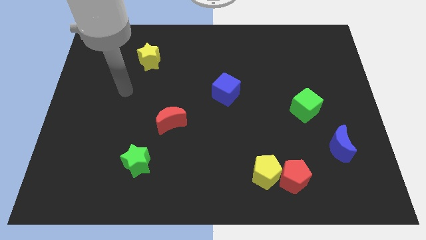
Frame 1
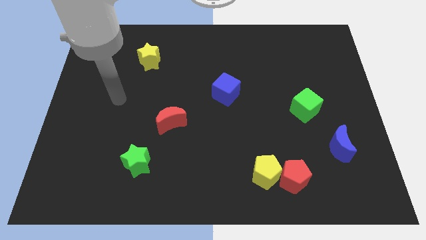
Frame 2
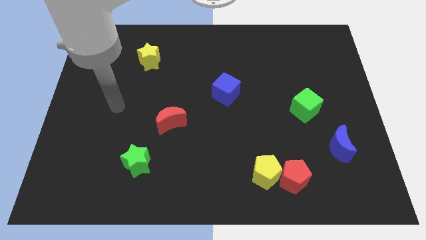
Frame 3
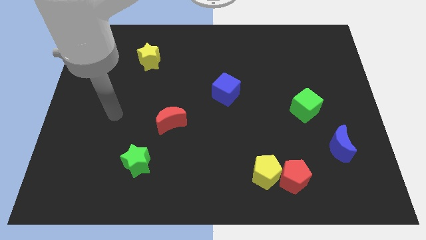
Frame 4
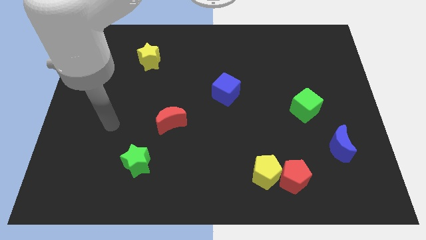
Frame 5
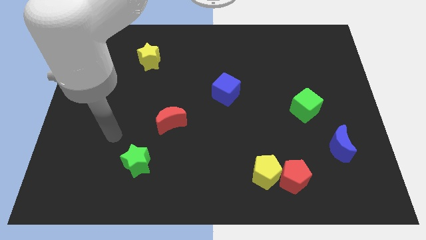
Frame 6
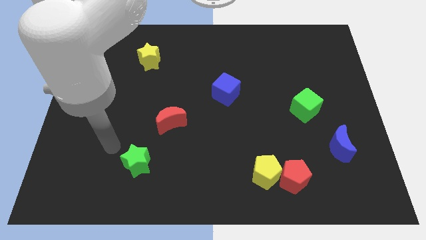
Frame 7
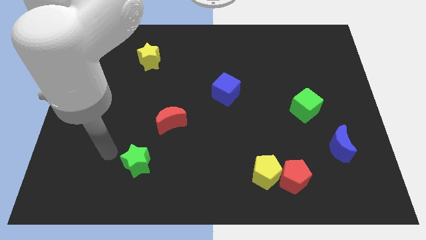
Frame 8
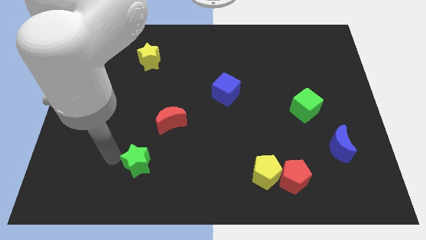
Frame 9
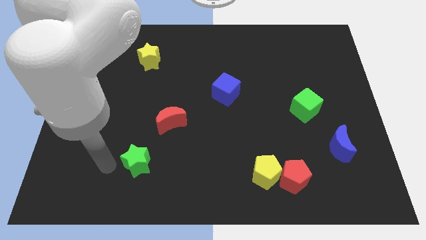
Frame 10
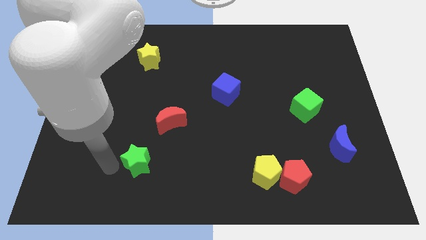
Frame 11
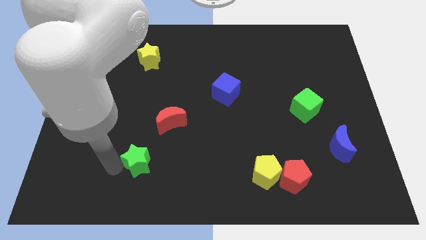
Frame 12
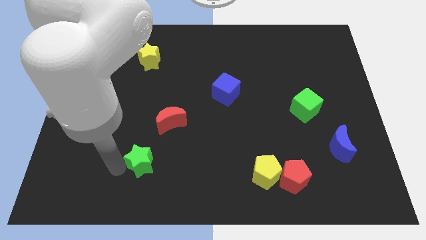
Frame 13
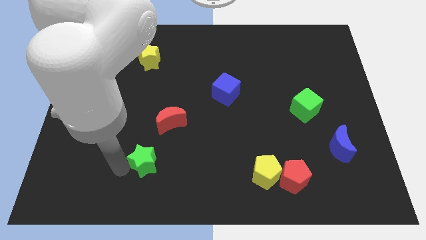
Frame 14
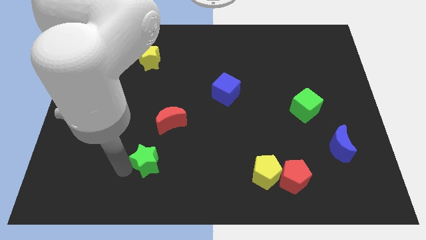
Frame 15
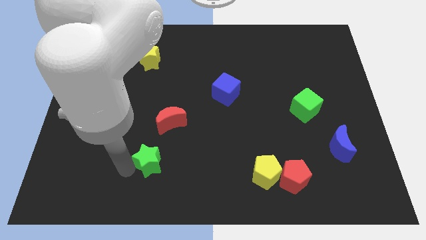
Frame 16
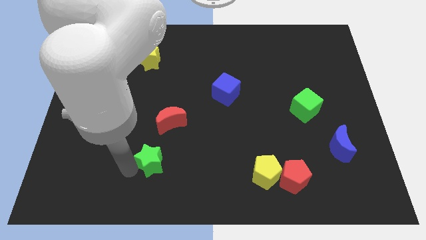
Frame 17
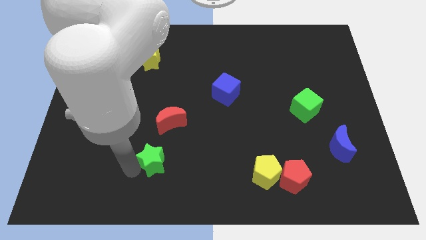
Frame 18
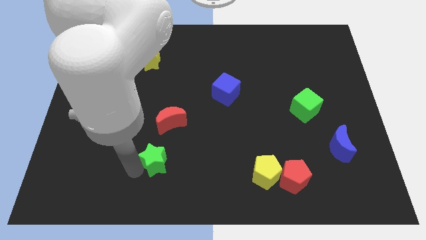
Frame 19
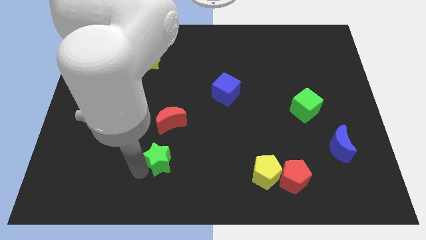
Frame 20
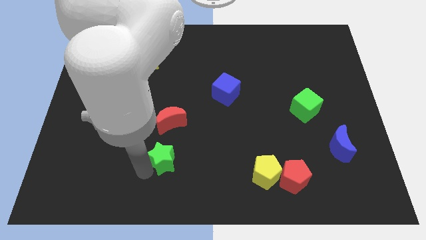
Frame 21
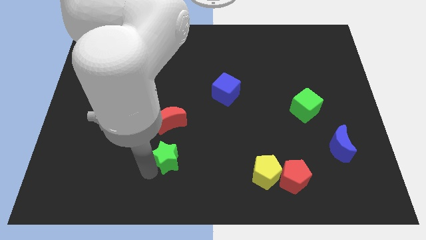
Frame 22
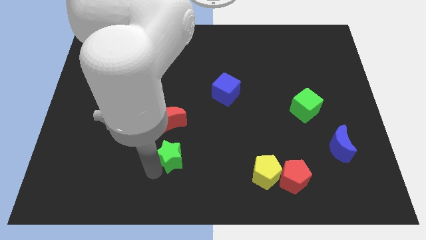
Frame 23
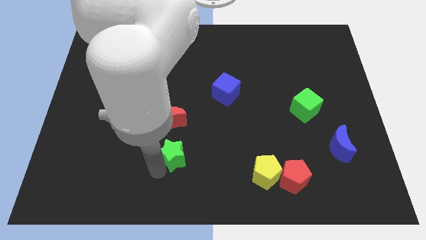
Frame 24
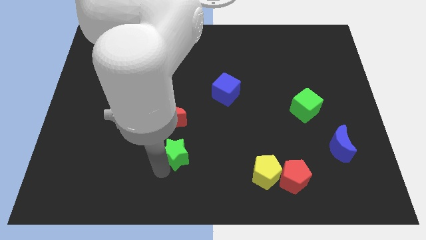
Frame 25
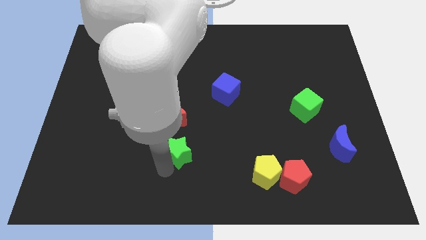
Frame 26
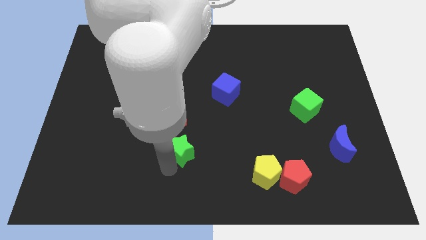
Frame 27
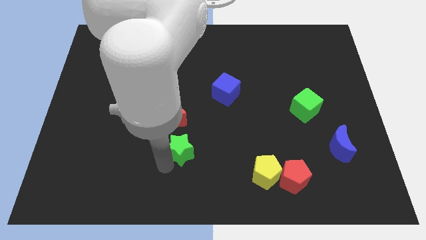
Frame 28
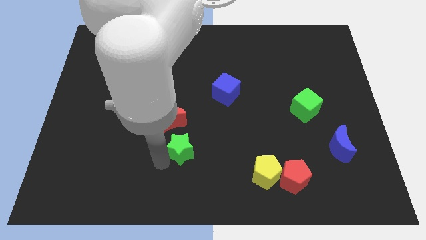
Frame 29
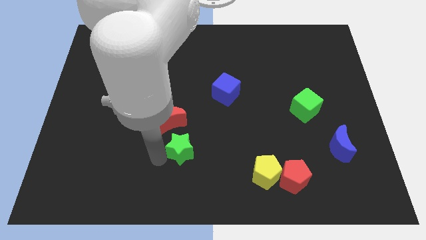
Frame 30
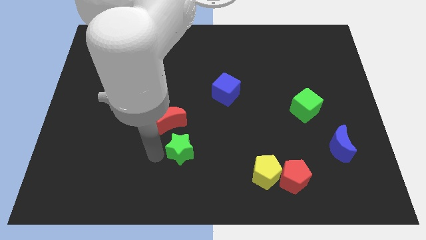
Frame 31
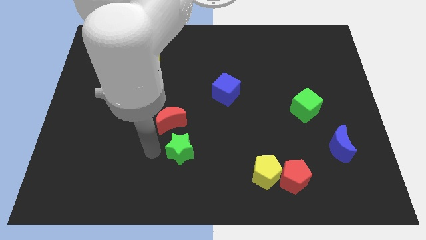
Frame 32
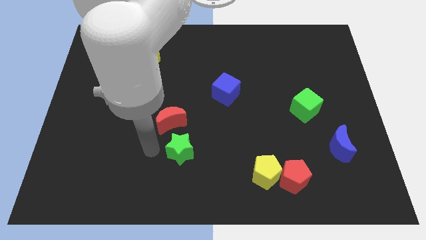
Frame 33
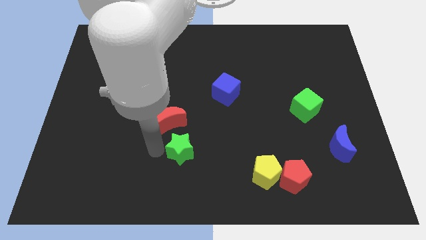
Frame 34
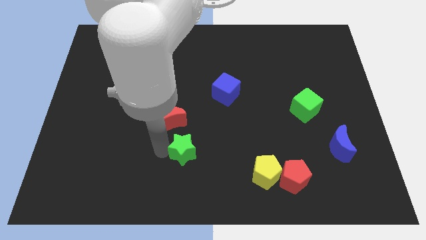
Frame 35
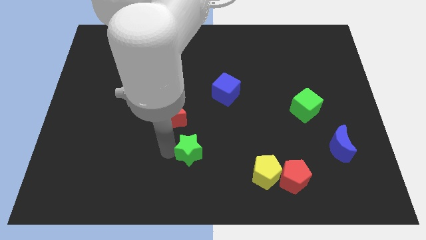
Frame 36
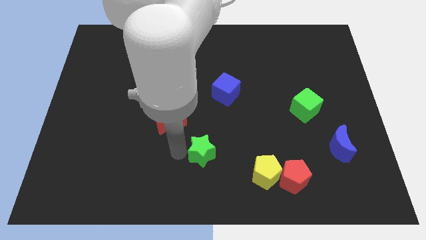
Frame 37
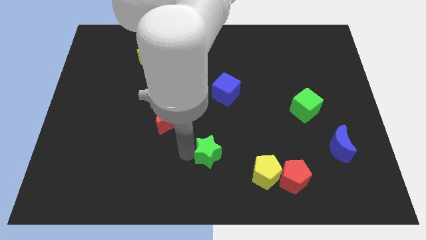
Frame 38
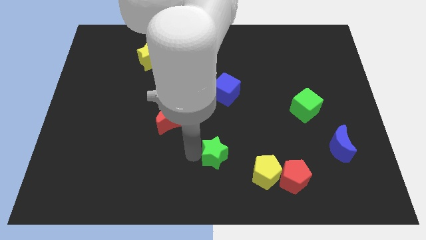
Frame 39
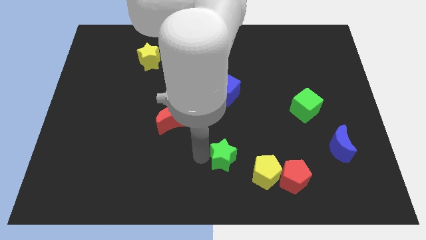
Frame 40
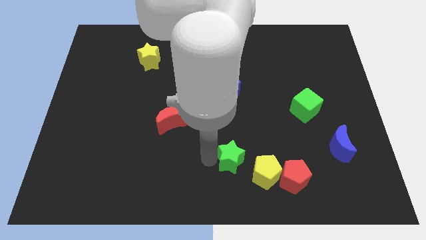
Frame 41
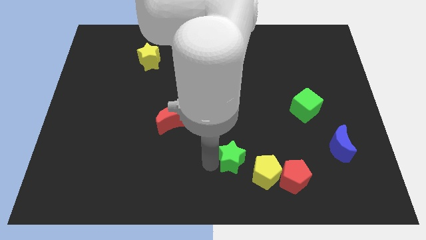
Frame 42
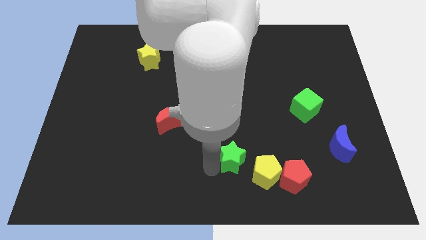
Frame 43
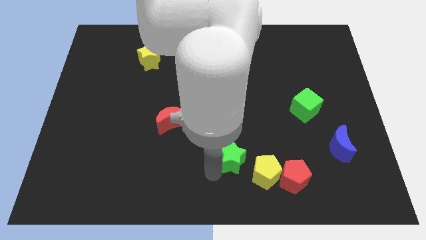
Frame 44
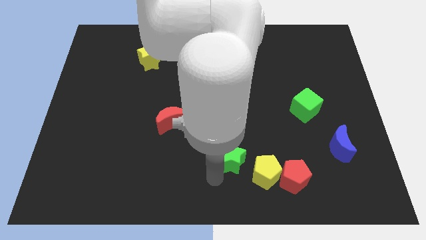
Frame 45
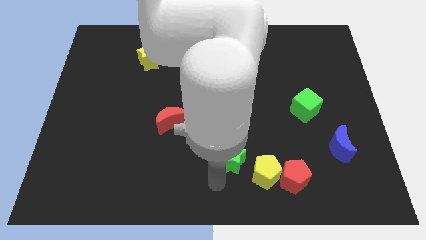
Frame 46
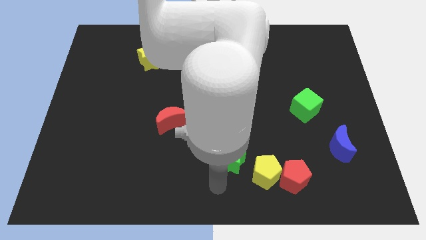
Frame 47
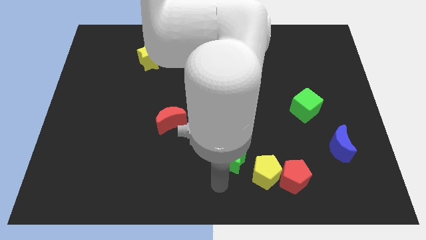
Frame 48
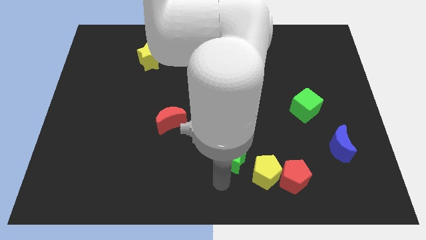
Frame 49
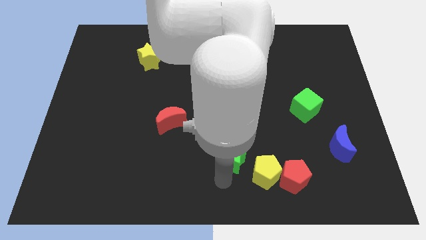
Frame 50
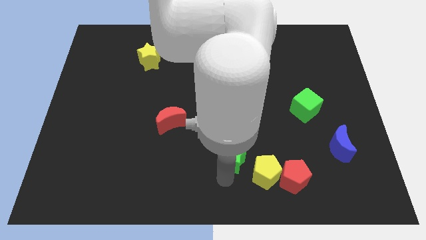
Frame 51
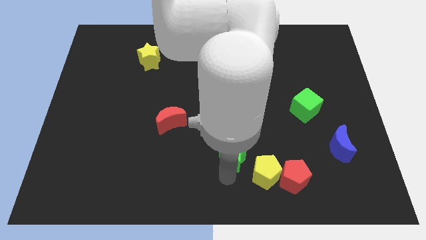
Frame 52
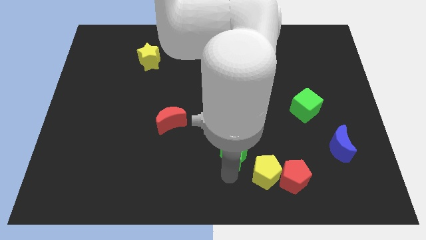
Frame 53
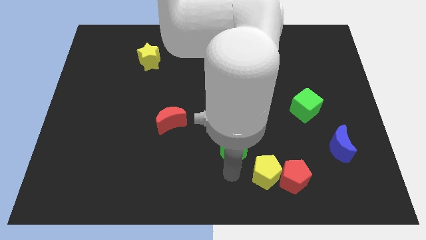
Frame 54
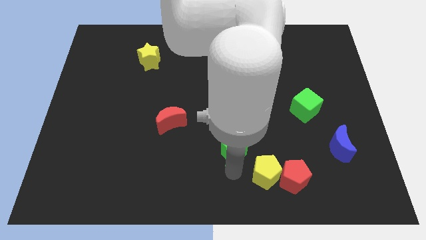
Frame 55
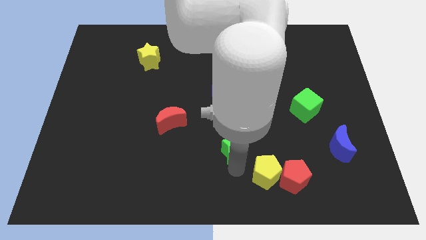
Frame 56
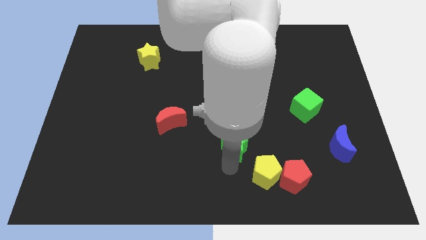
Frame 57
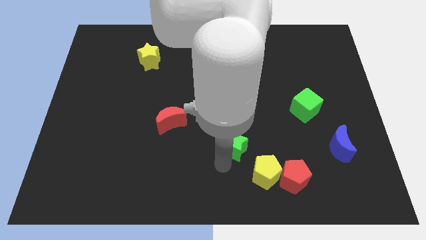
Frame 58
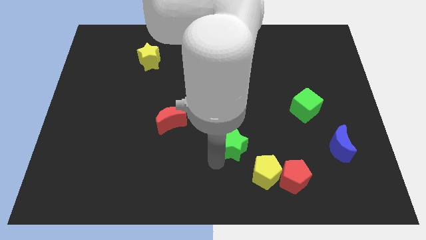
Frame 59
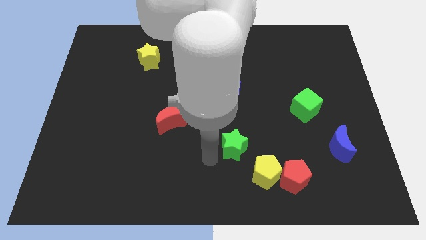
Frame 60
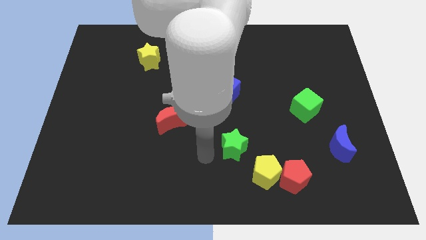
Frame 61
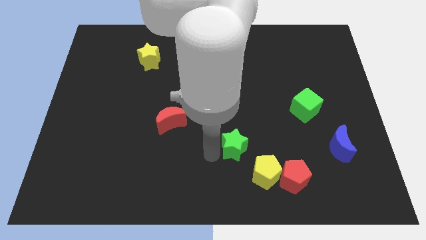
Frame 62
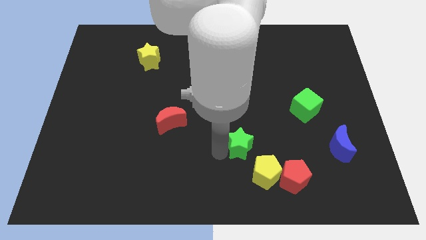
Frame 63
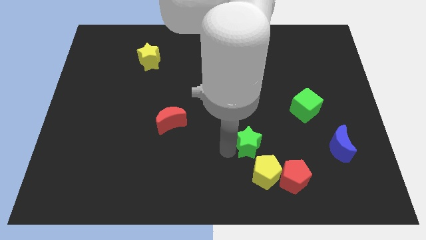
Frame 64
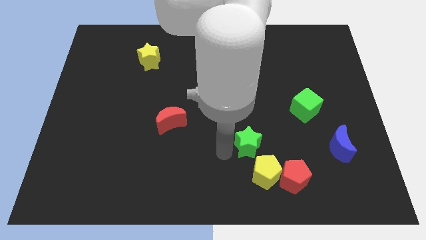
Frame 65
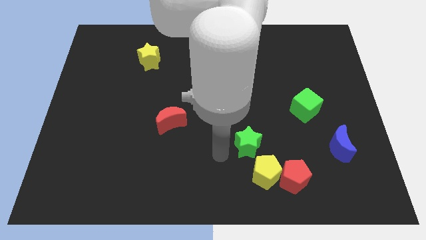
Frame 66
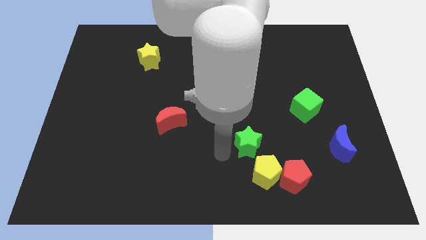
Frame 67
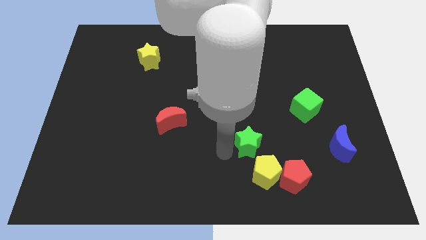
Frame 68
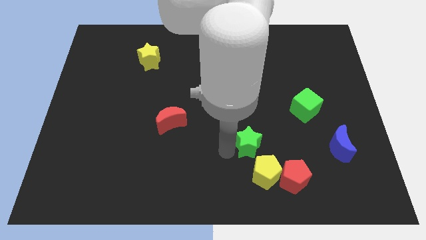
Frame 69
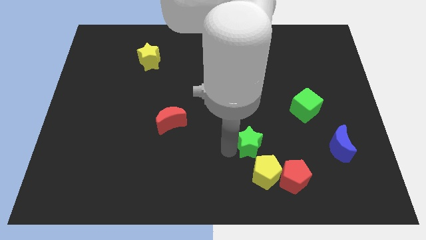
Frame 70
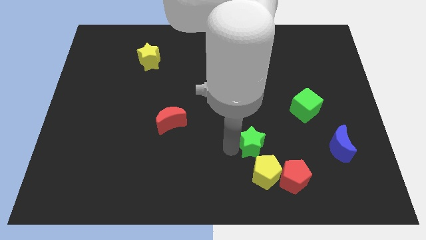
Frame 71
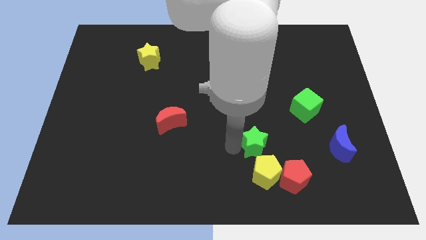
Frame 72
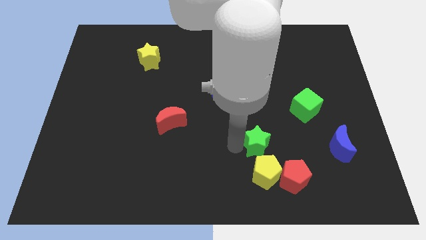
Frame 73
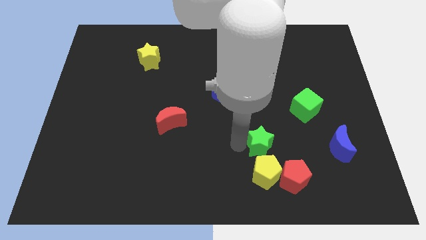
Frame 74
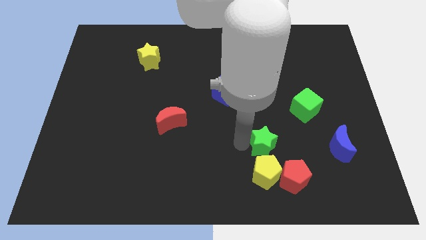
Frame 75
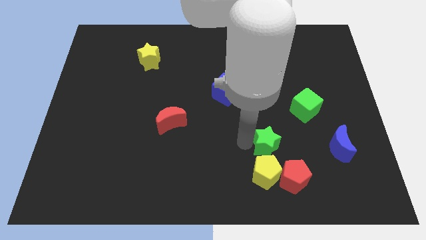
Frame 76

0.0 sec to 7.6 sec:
put the green star to the top side of the red pentagon
